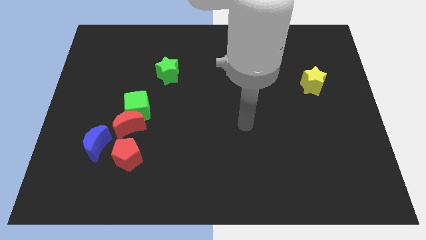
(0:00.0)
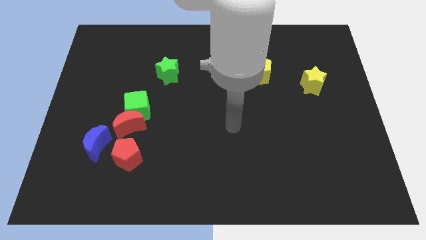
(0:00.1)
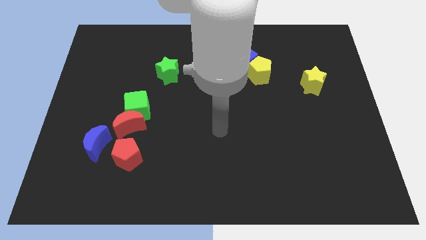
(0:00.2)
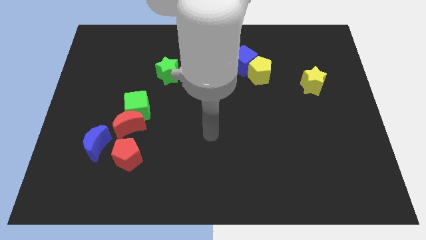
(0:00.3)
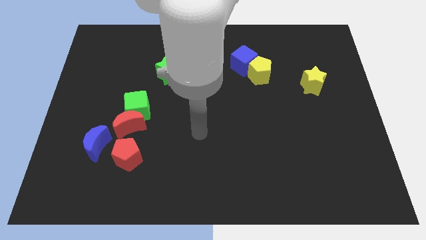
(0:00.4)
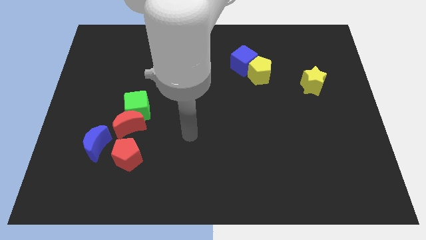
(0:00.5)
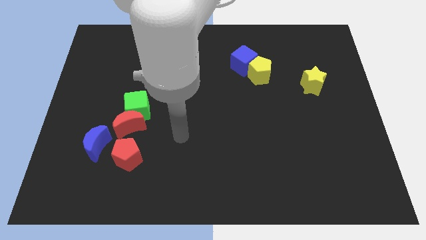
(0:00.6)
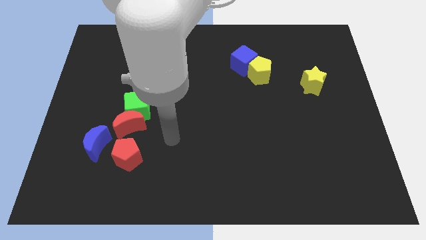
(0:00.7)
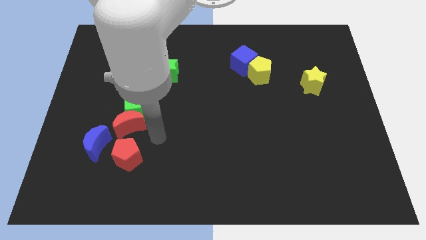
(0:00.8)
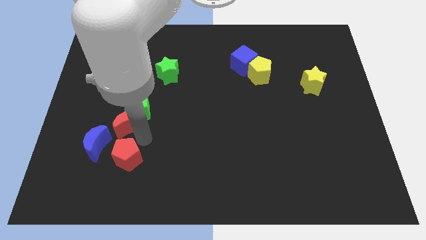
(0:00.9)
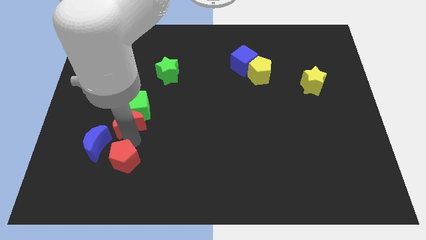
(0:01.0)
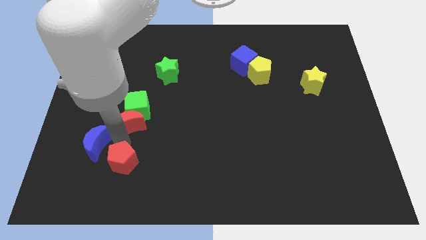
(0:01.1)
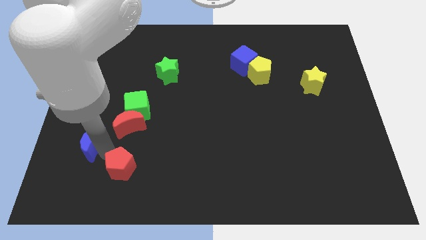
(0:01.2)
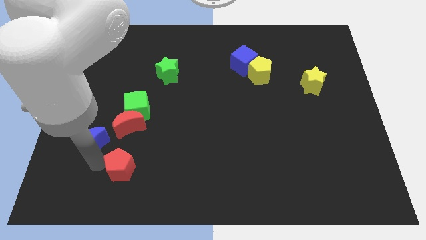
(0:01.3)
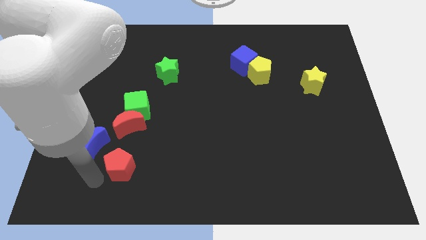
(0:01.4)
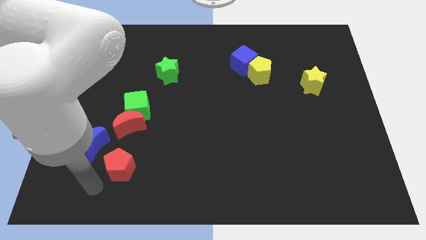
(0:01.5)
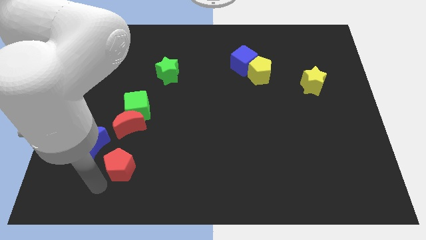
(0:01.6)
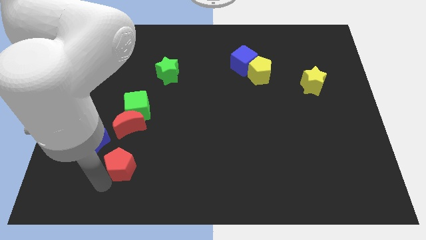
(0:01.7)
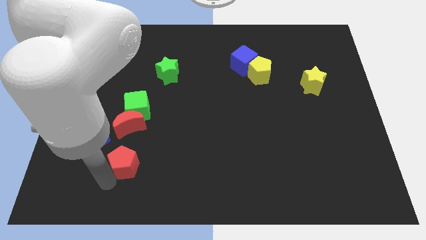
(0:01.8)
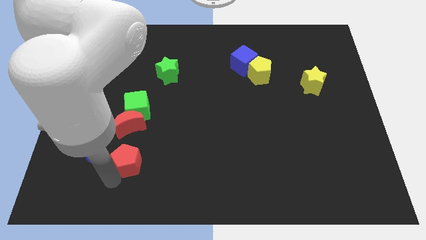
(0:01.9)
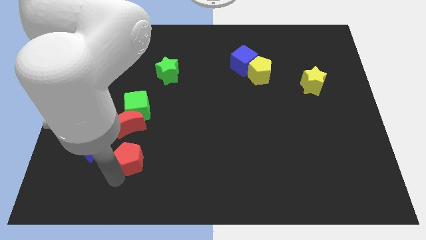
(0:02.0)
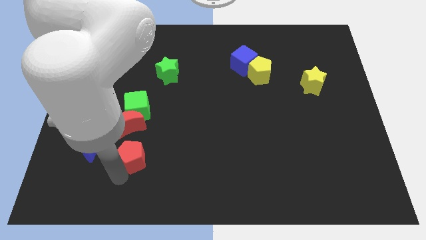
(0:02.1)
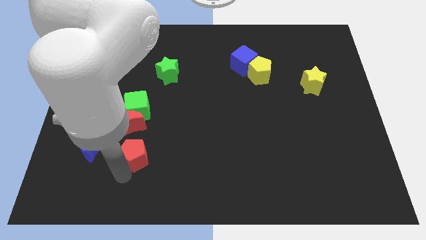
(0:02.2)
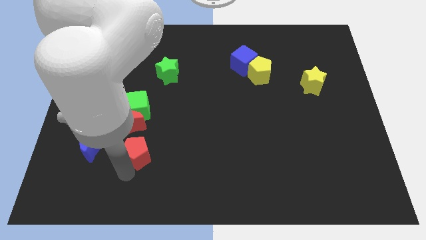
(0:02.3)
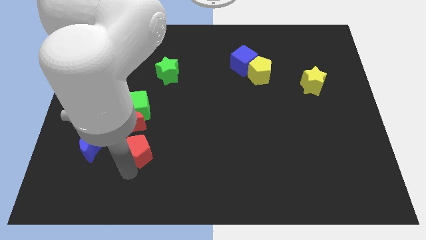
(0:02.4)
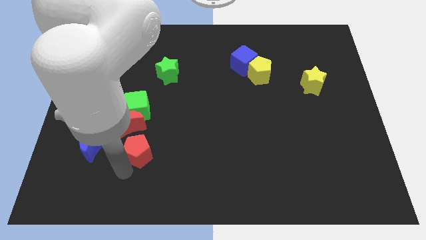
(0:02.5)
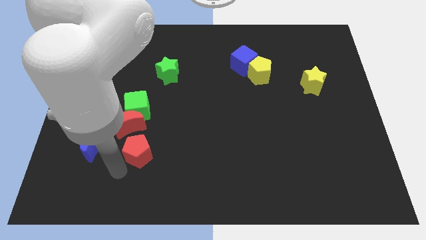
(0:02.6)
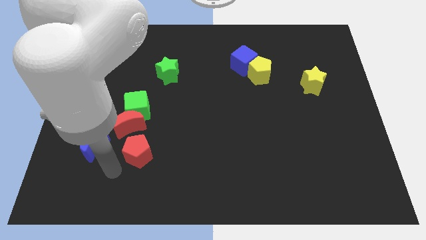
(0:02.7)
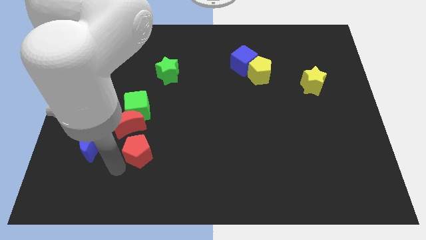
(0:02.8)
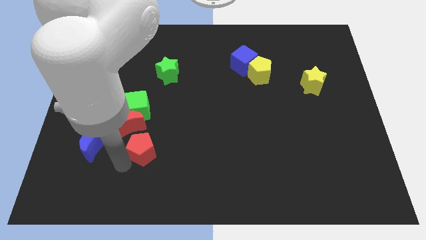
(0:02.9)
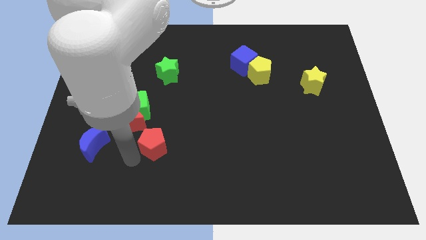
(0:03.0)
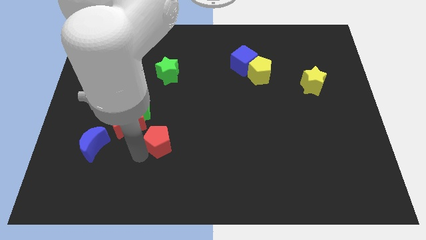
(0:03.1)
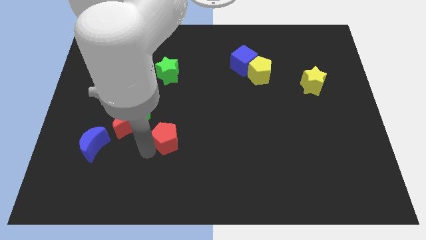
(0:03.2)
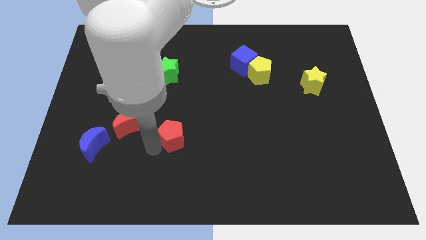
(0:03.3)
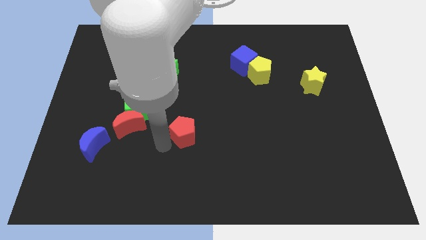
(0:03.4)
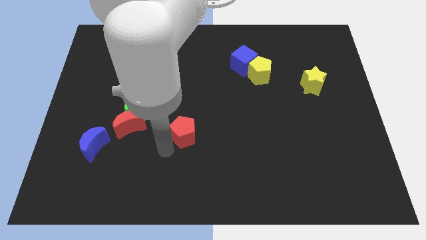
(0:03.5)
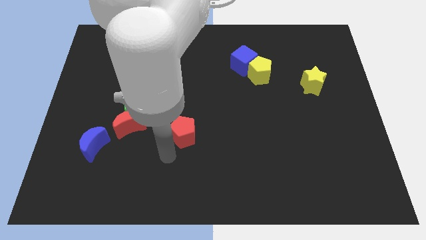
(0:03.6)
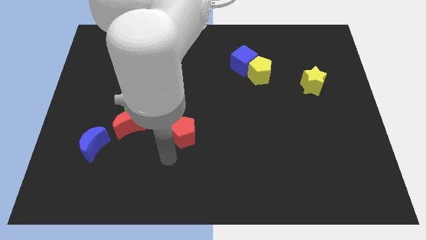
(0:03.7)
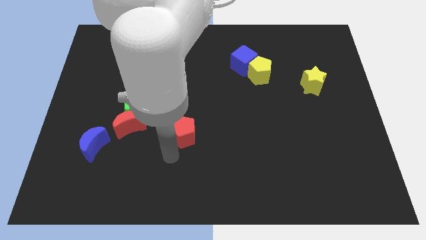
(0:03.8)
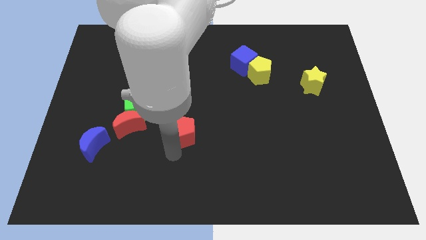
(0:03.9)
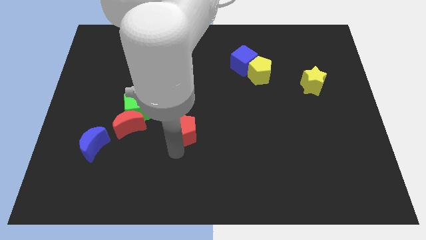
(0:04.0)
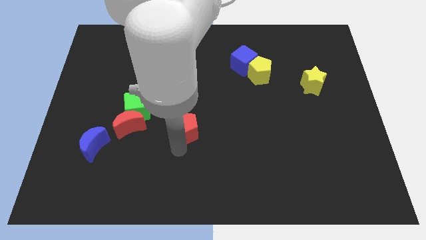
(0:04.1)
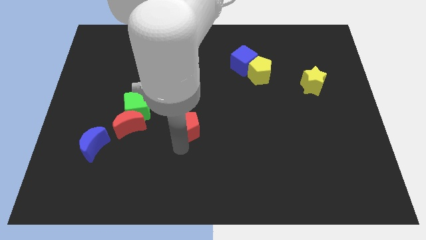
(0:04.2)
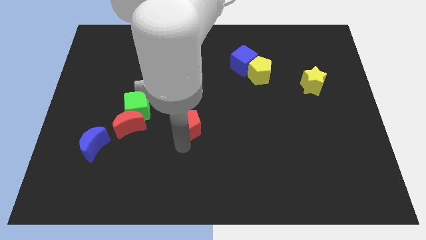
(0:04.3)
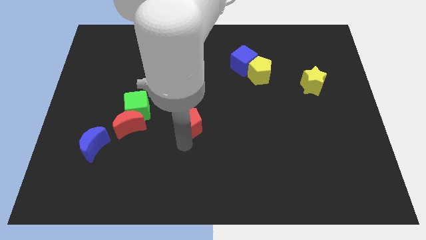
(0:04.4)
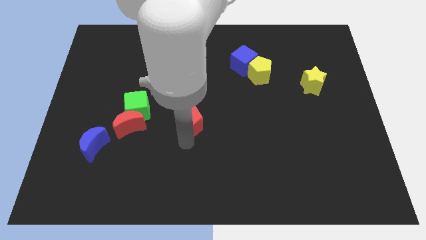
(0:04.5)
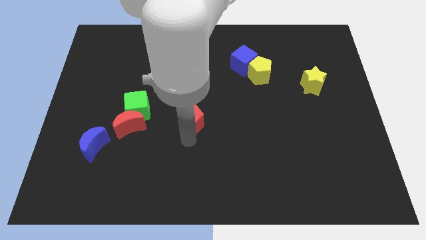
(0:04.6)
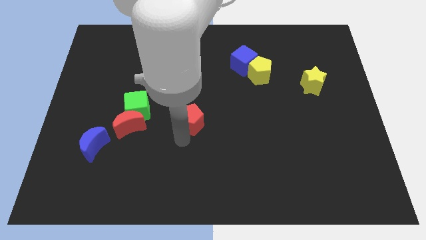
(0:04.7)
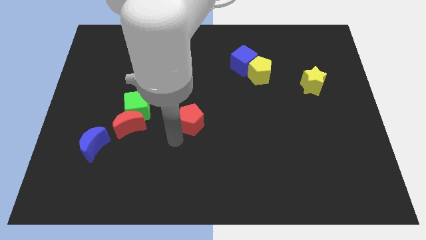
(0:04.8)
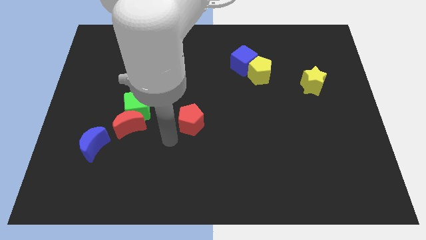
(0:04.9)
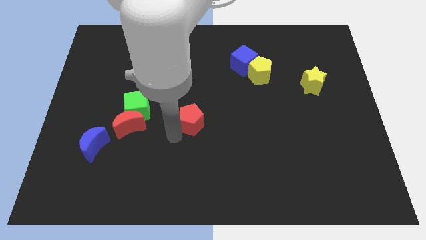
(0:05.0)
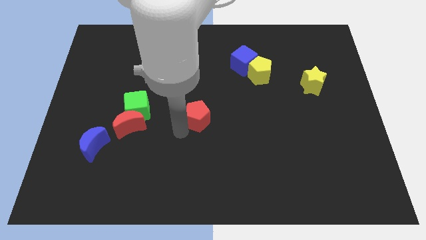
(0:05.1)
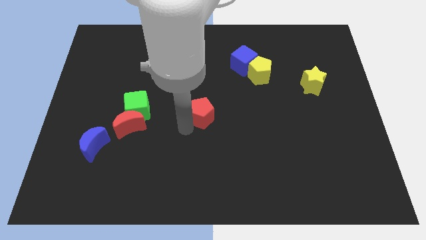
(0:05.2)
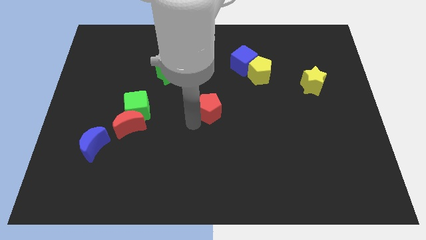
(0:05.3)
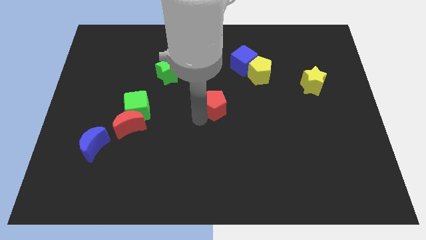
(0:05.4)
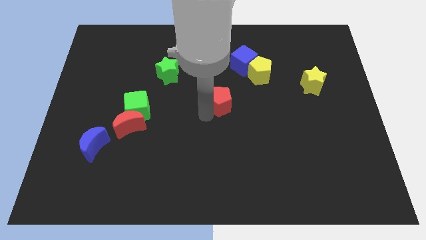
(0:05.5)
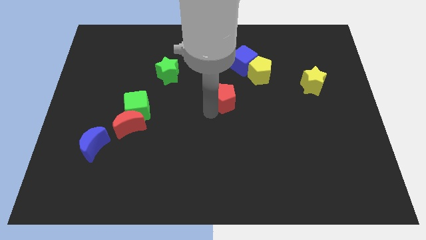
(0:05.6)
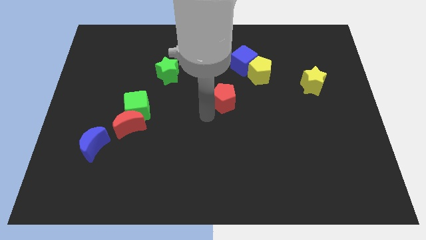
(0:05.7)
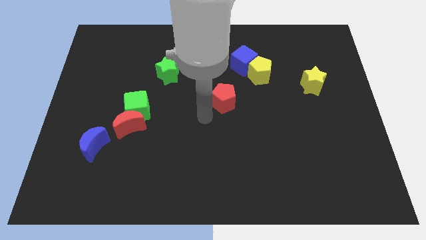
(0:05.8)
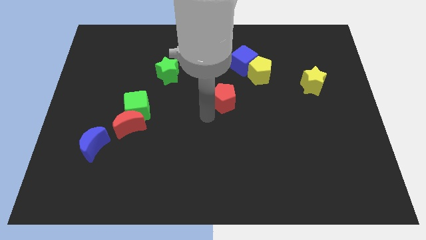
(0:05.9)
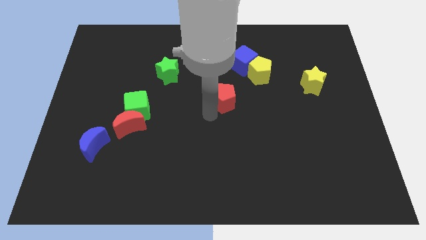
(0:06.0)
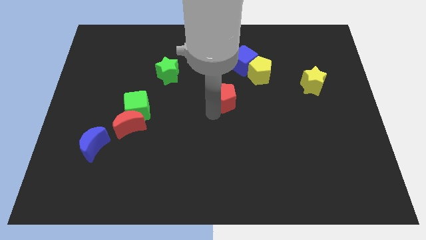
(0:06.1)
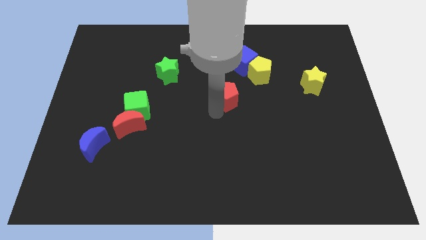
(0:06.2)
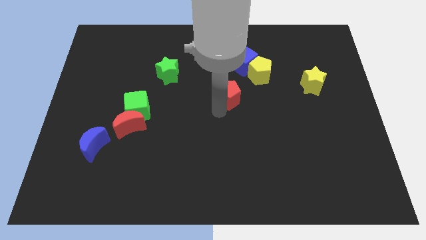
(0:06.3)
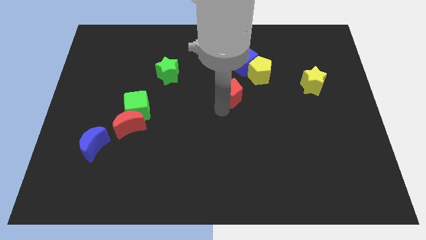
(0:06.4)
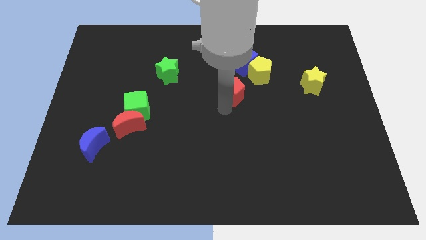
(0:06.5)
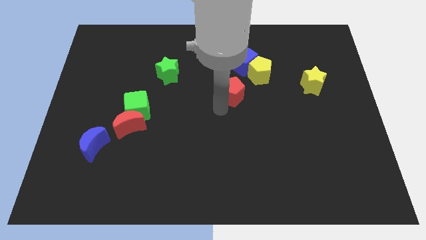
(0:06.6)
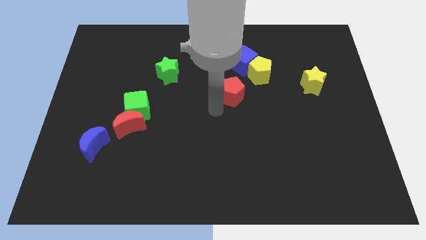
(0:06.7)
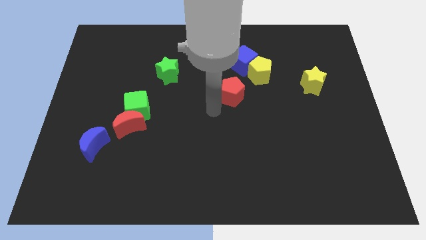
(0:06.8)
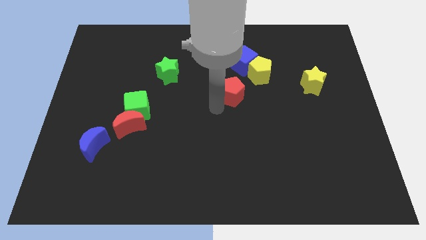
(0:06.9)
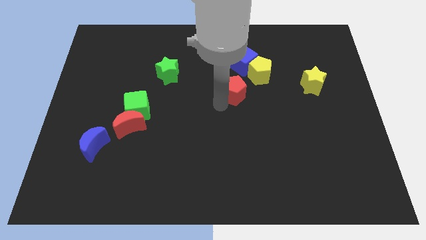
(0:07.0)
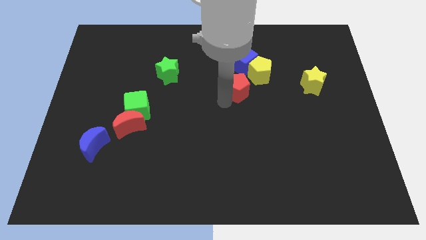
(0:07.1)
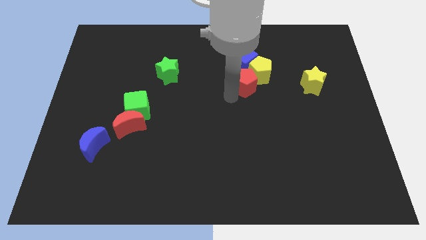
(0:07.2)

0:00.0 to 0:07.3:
put the red pentagon towards the yellow pentagon
